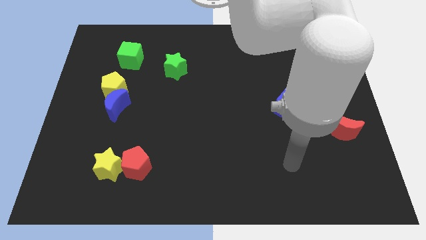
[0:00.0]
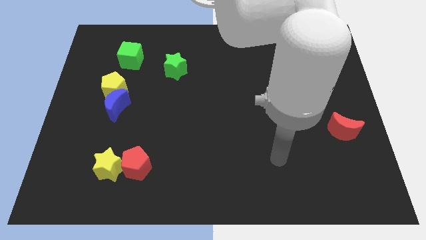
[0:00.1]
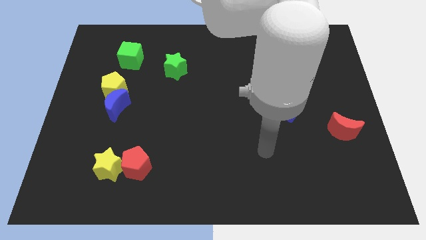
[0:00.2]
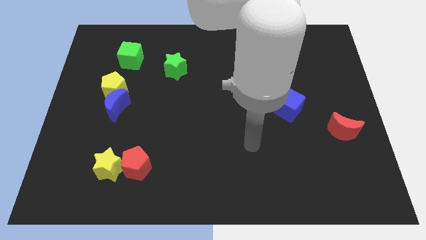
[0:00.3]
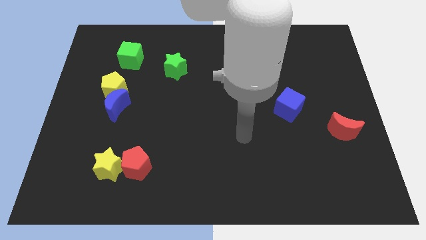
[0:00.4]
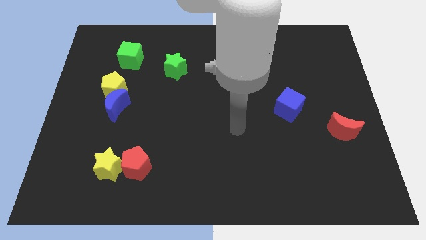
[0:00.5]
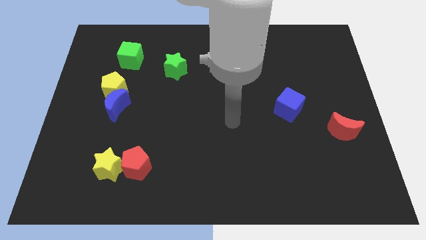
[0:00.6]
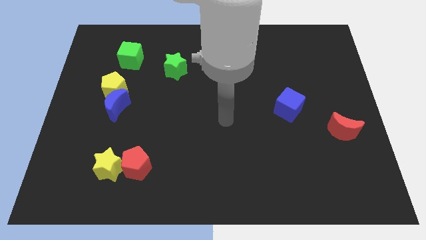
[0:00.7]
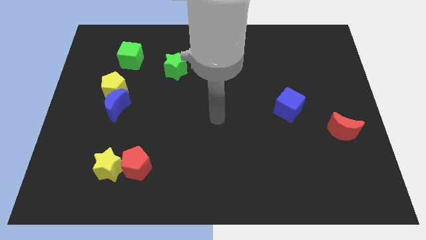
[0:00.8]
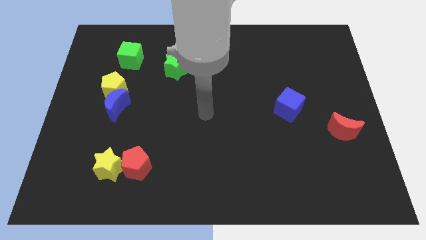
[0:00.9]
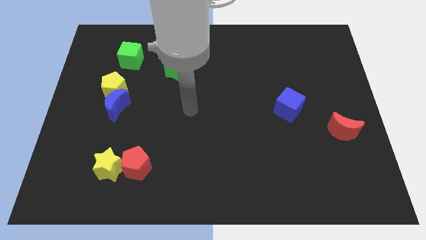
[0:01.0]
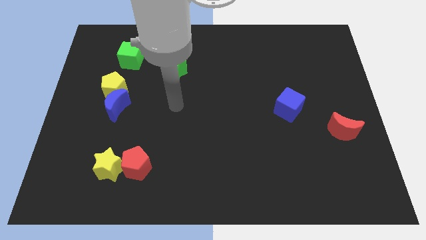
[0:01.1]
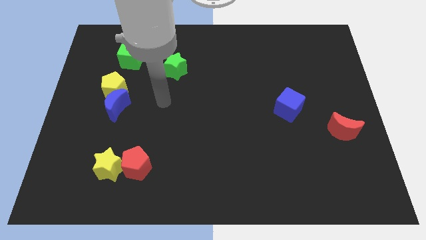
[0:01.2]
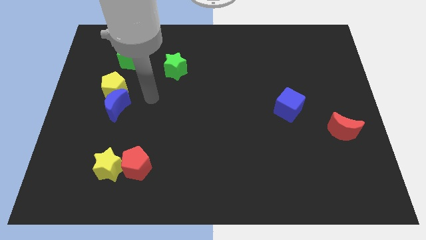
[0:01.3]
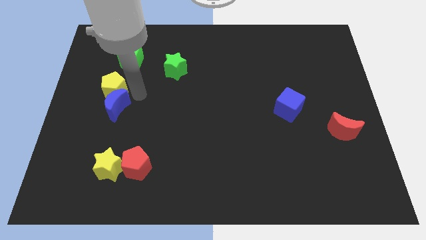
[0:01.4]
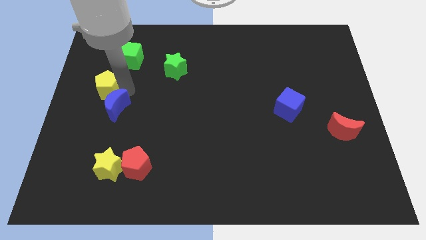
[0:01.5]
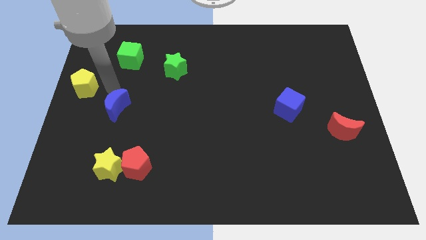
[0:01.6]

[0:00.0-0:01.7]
move the blue moon away from the yellow pentagon

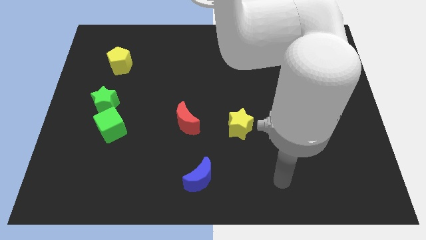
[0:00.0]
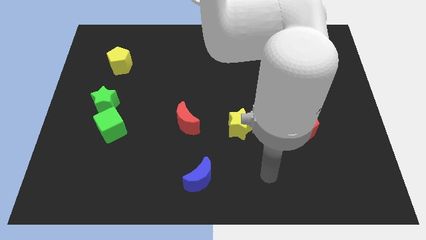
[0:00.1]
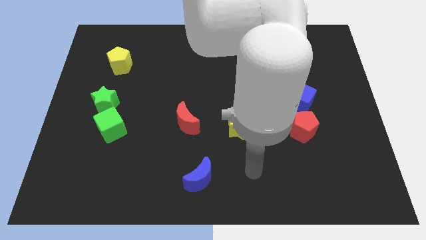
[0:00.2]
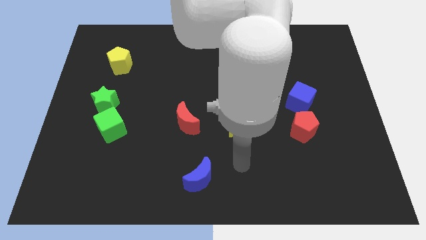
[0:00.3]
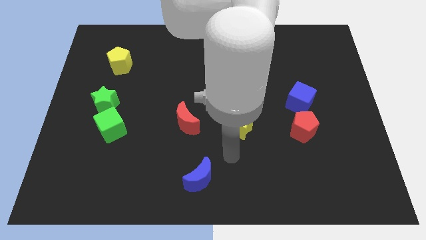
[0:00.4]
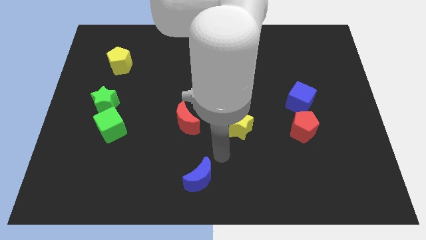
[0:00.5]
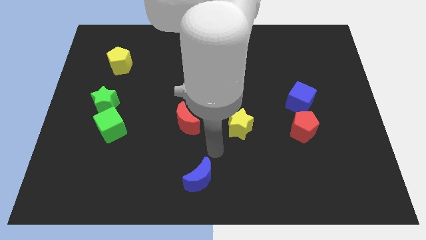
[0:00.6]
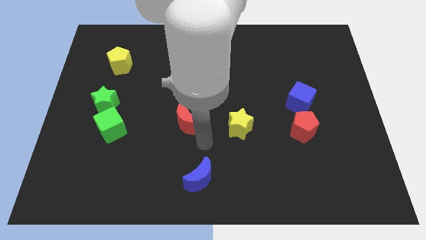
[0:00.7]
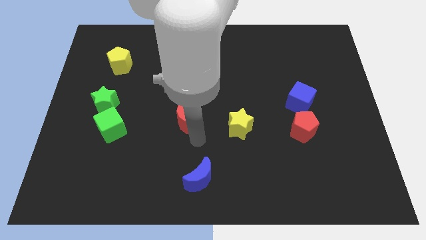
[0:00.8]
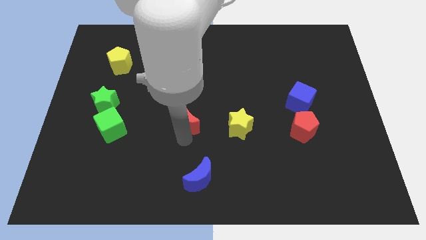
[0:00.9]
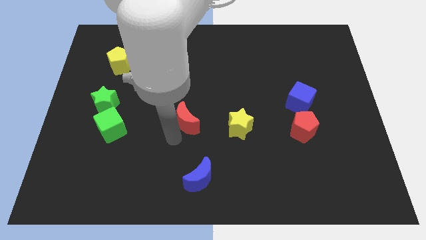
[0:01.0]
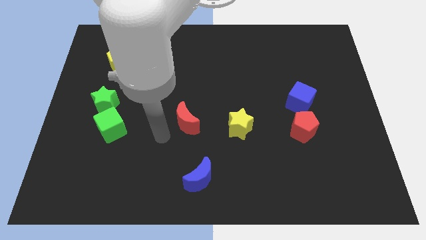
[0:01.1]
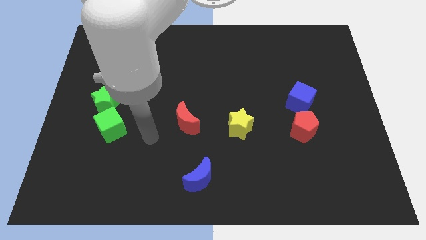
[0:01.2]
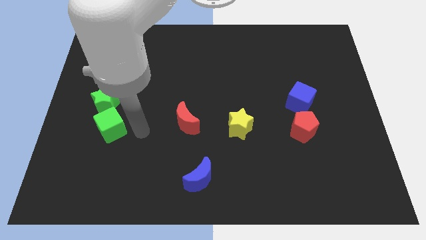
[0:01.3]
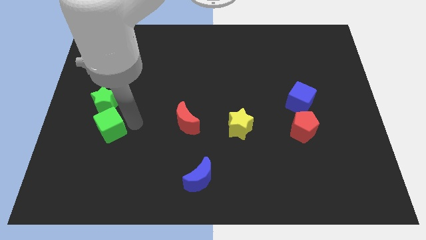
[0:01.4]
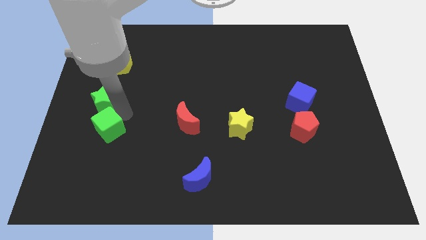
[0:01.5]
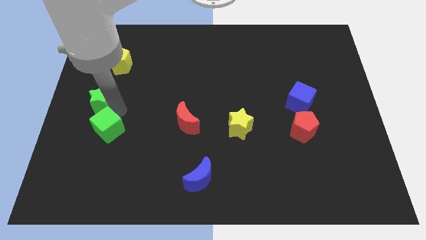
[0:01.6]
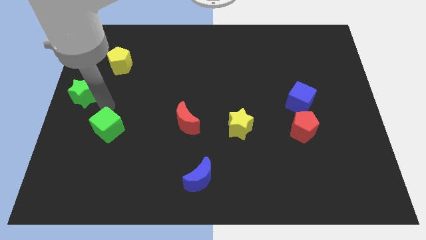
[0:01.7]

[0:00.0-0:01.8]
separate the green cube from the green star

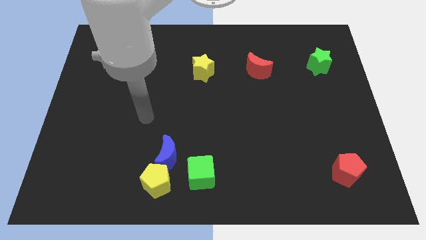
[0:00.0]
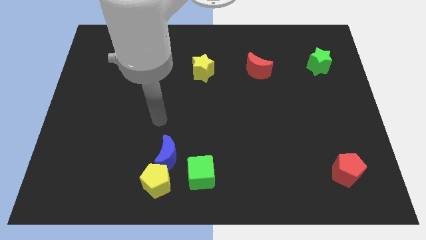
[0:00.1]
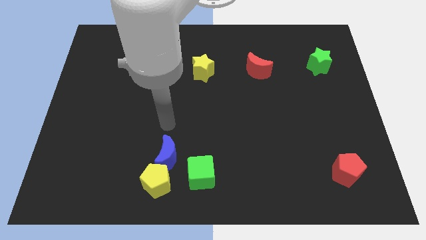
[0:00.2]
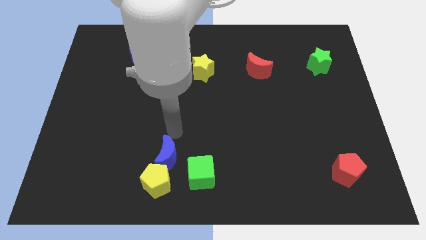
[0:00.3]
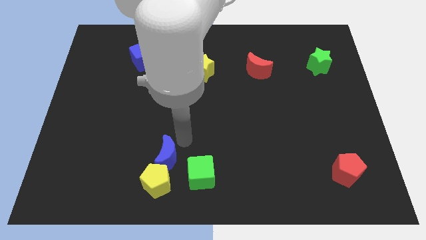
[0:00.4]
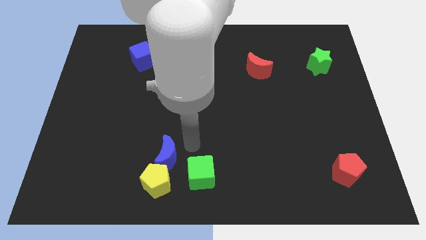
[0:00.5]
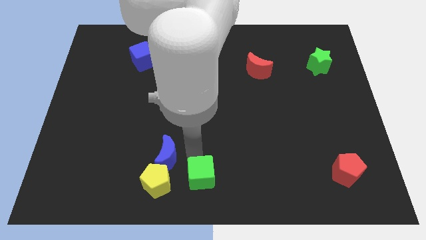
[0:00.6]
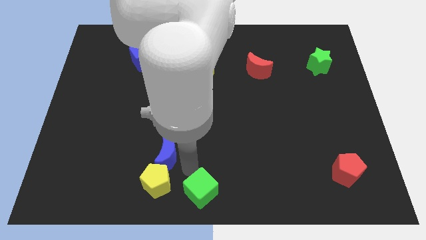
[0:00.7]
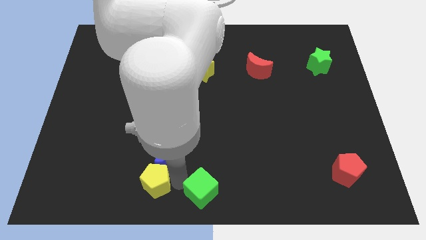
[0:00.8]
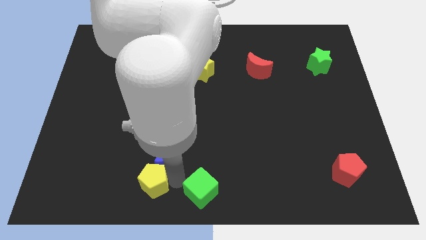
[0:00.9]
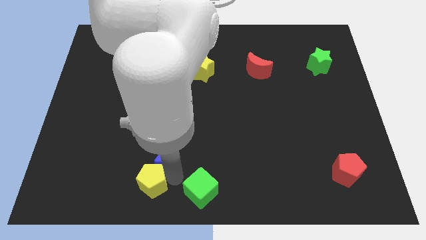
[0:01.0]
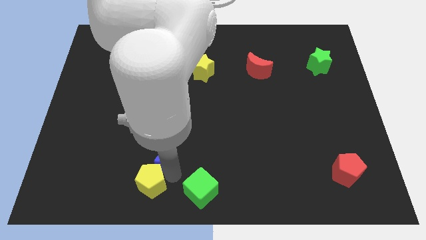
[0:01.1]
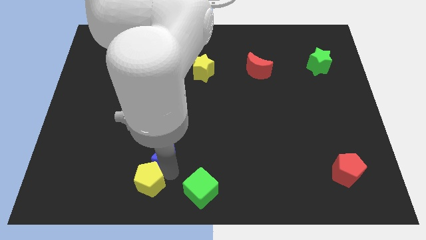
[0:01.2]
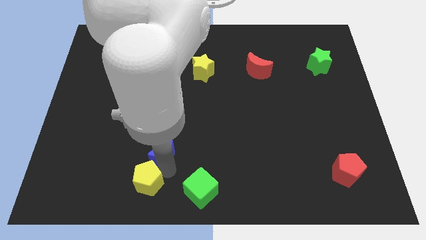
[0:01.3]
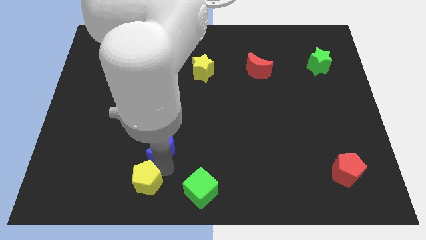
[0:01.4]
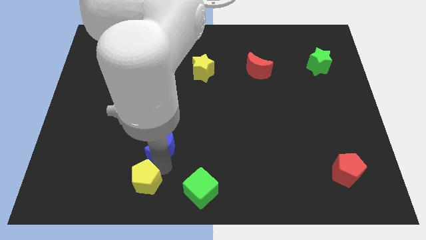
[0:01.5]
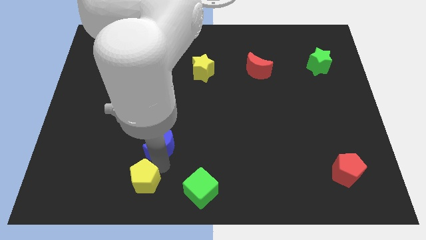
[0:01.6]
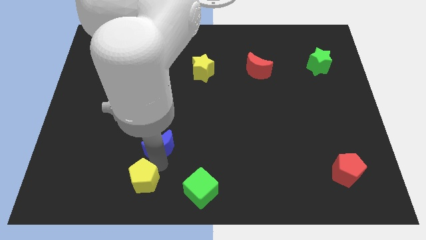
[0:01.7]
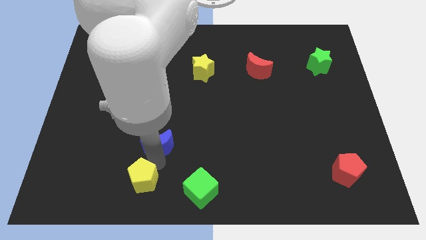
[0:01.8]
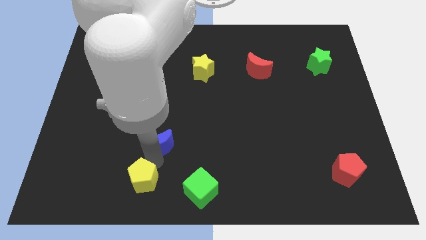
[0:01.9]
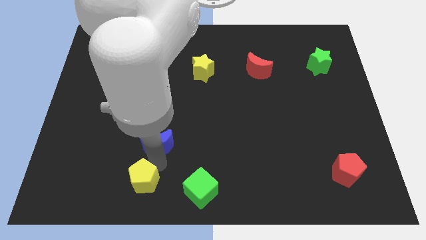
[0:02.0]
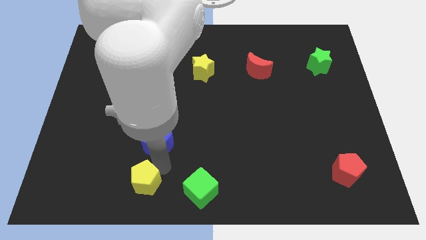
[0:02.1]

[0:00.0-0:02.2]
move the blue moon away from the yellow pentagon and green cube

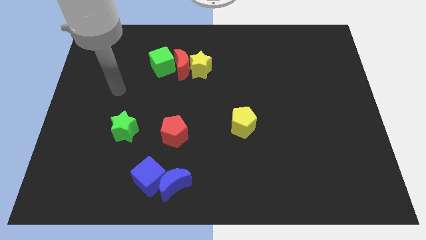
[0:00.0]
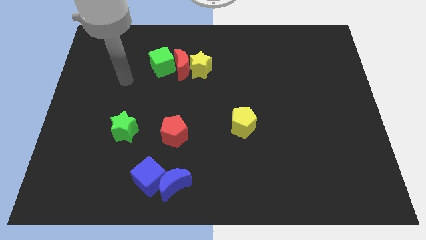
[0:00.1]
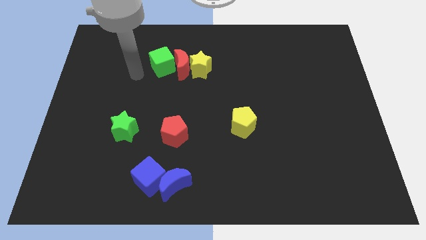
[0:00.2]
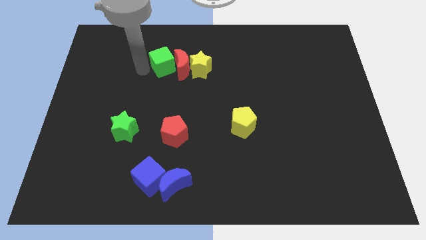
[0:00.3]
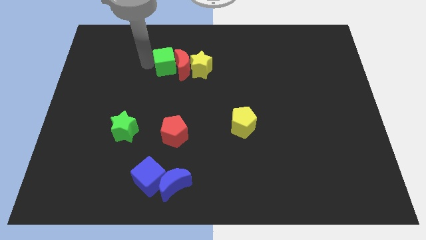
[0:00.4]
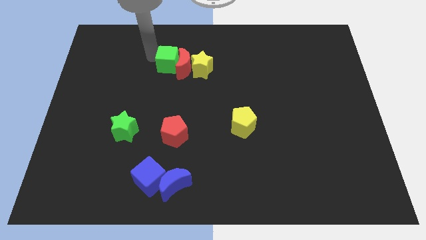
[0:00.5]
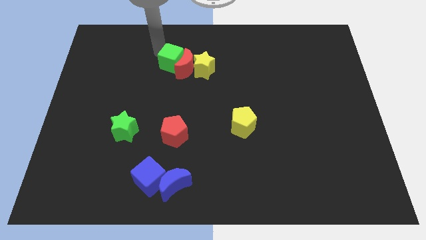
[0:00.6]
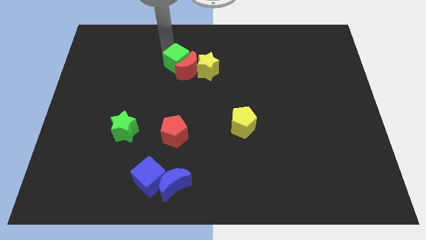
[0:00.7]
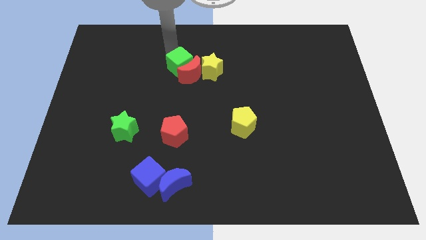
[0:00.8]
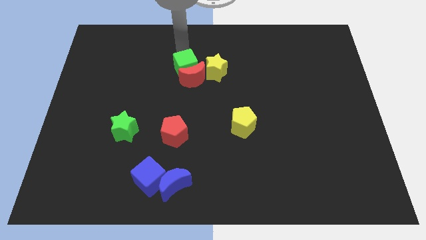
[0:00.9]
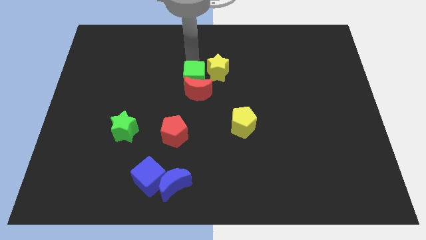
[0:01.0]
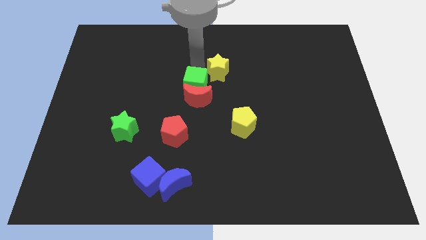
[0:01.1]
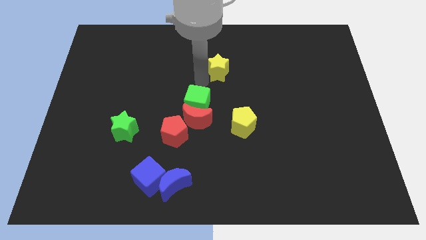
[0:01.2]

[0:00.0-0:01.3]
pull the red moon apart from the yellow star and green cube

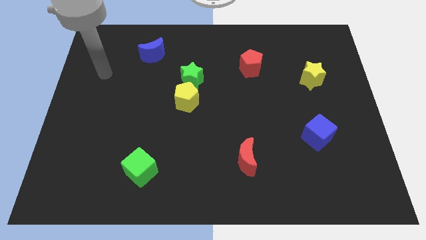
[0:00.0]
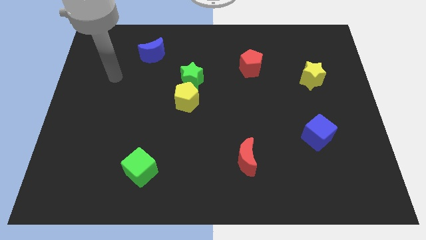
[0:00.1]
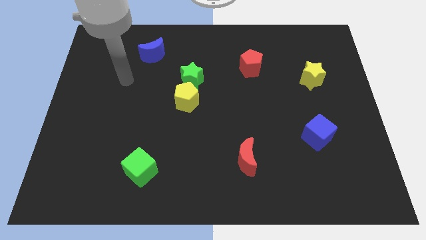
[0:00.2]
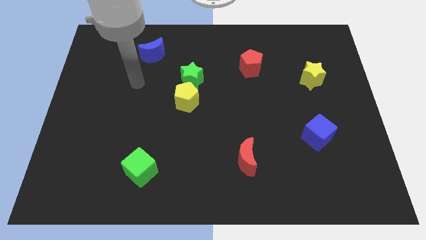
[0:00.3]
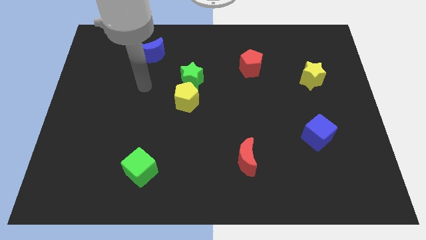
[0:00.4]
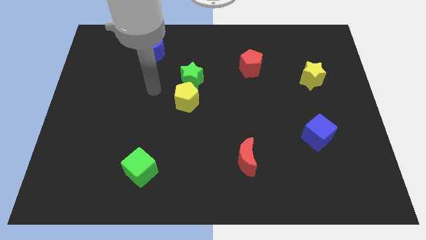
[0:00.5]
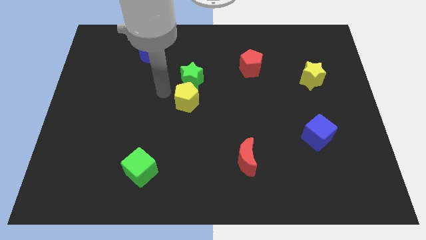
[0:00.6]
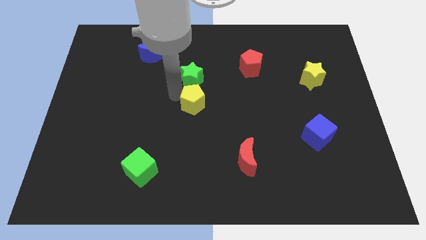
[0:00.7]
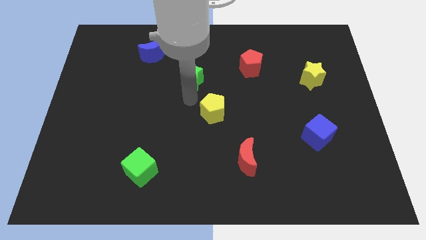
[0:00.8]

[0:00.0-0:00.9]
move the green star away from the yellow pentagon

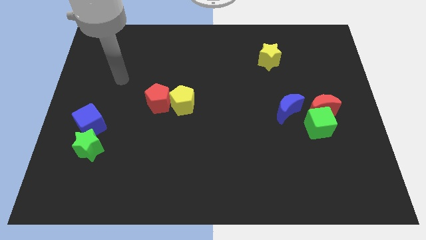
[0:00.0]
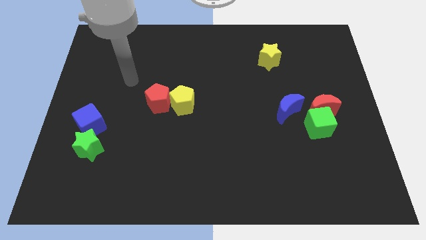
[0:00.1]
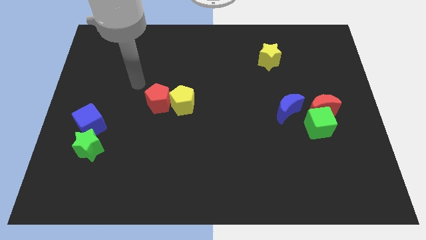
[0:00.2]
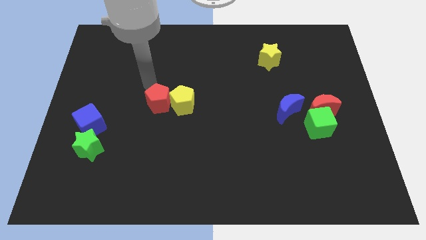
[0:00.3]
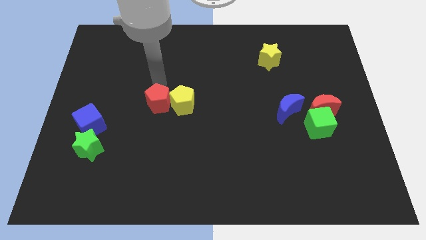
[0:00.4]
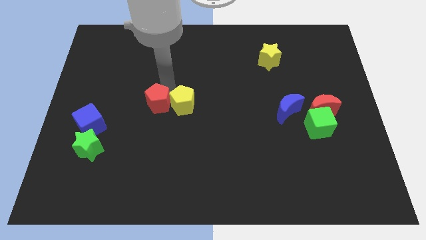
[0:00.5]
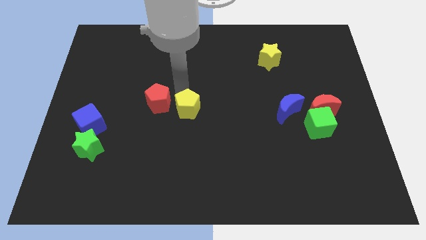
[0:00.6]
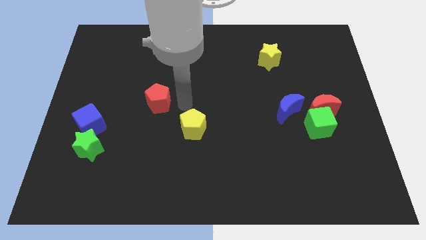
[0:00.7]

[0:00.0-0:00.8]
move the red pentagon away from the yellow pentagon

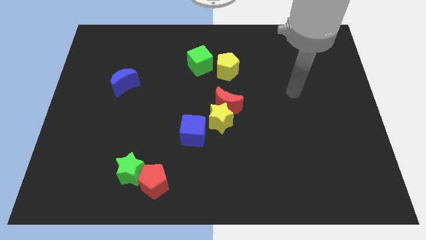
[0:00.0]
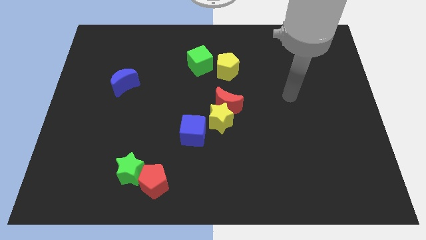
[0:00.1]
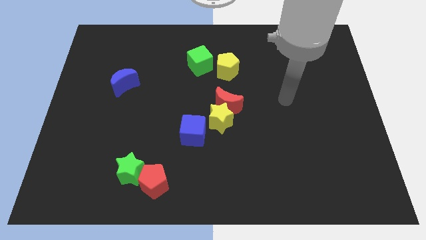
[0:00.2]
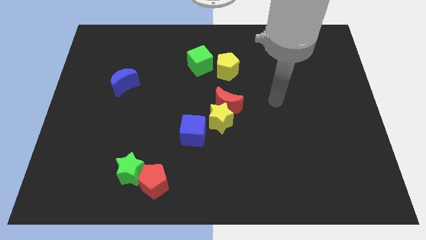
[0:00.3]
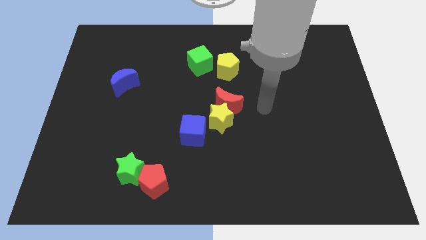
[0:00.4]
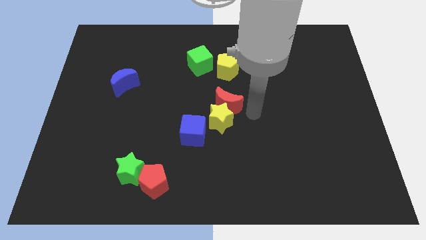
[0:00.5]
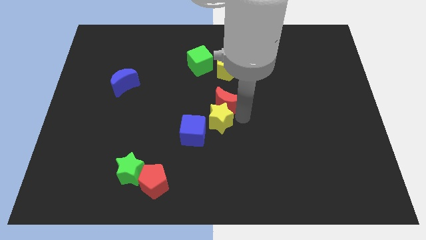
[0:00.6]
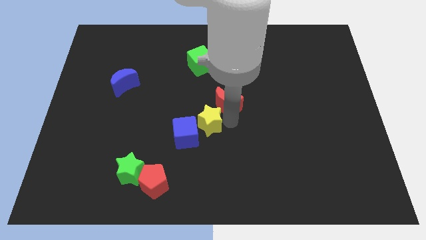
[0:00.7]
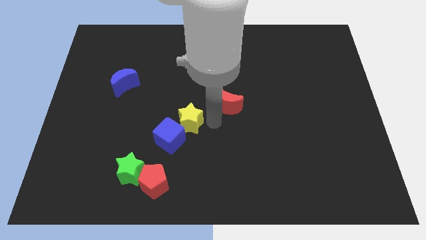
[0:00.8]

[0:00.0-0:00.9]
pull the red moon apart from the yellow star
